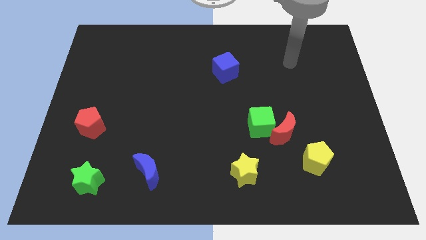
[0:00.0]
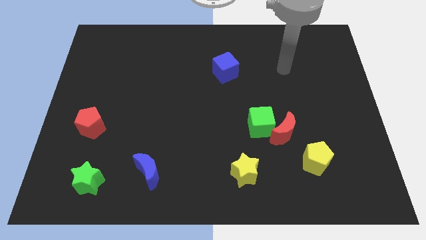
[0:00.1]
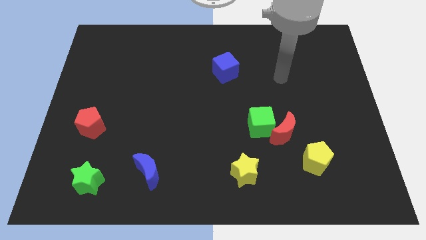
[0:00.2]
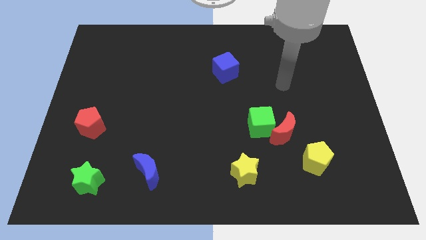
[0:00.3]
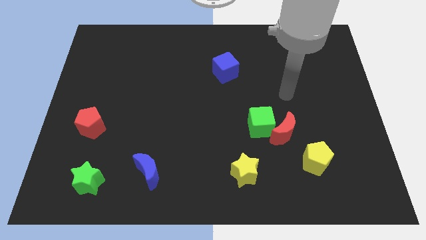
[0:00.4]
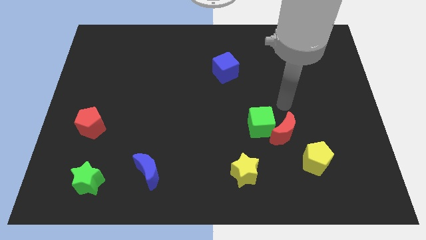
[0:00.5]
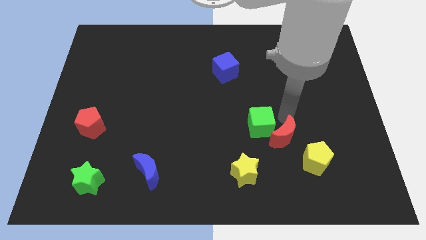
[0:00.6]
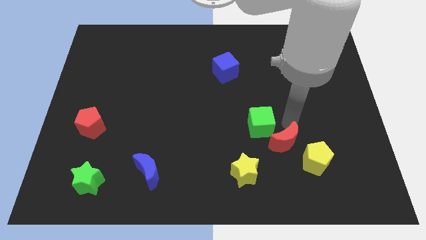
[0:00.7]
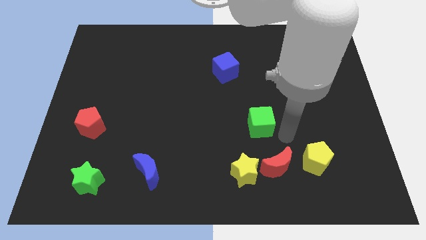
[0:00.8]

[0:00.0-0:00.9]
separate the green cube from the red moon

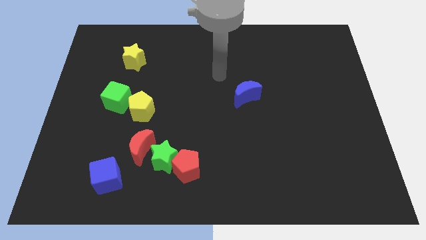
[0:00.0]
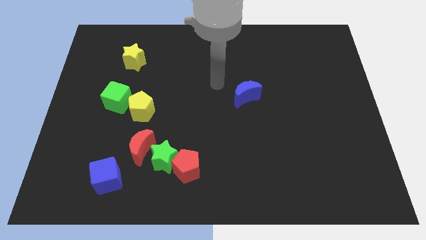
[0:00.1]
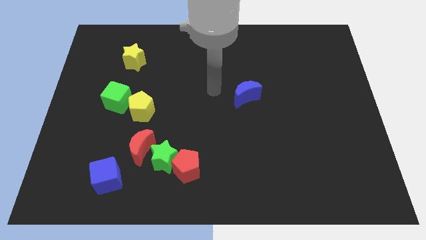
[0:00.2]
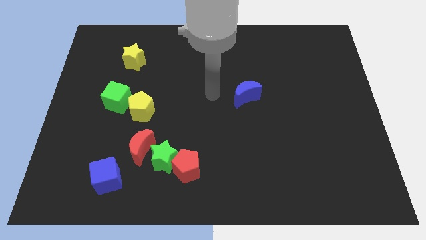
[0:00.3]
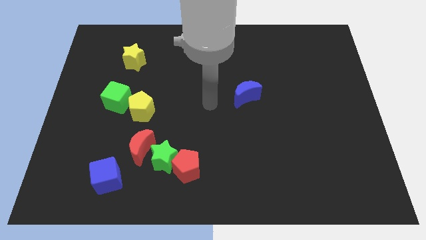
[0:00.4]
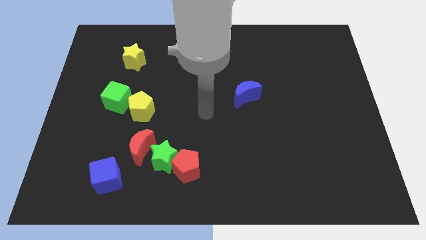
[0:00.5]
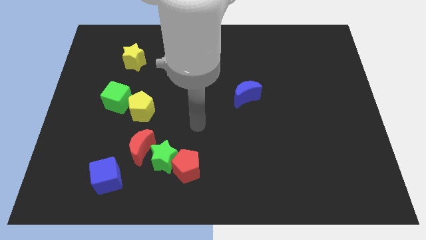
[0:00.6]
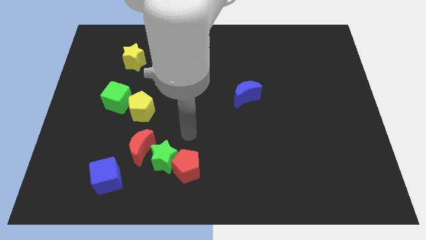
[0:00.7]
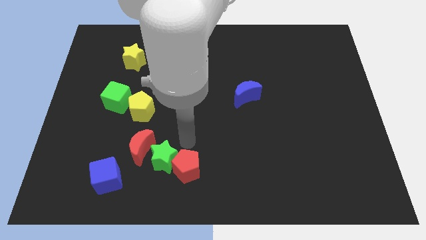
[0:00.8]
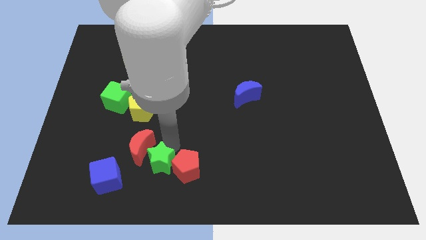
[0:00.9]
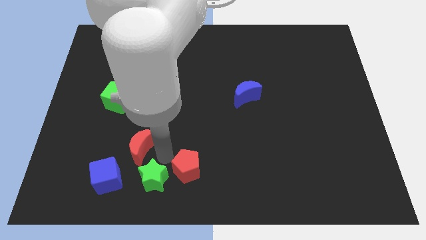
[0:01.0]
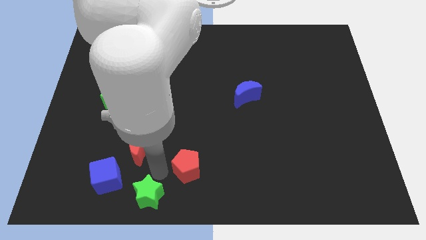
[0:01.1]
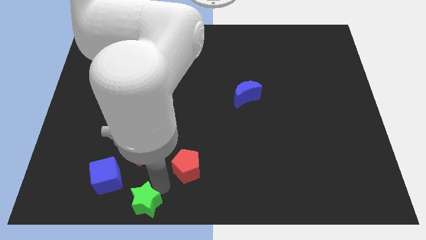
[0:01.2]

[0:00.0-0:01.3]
pull the red pentagon apart from the green star

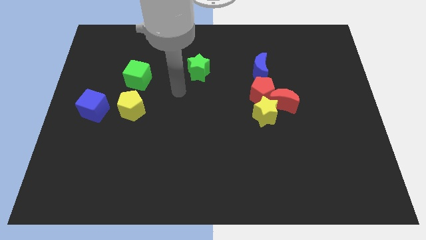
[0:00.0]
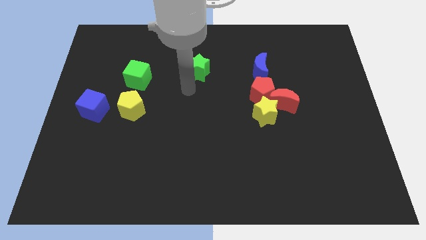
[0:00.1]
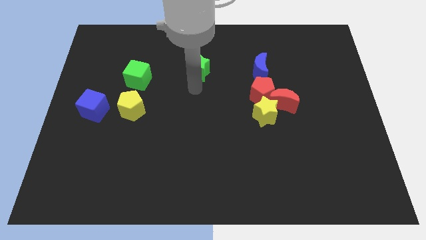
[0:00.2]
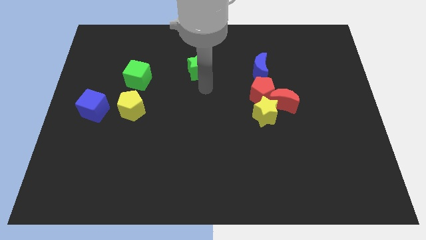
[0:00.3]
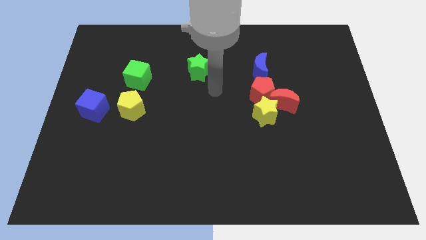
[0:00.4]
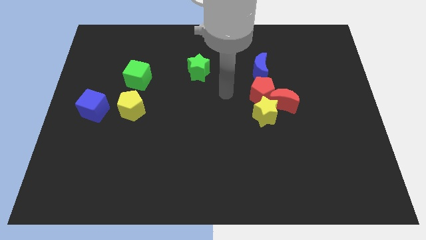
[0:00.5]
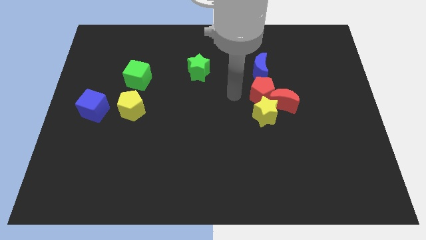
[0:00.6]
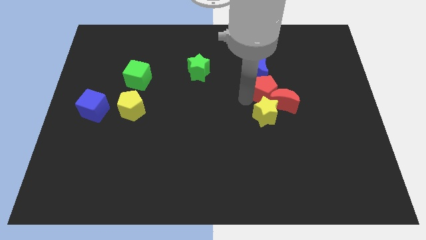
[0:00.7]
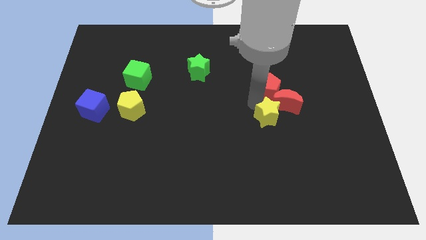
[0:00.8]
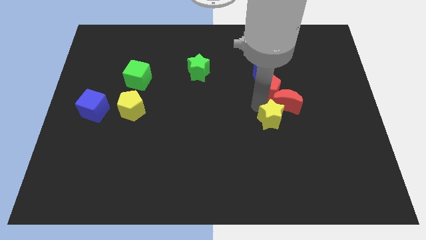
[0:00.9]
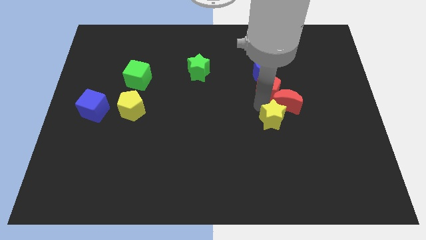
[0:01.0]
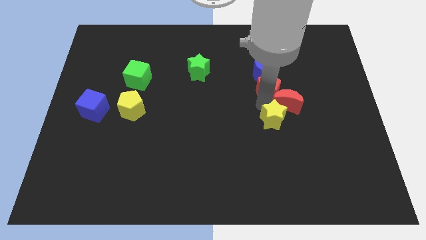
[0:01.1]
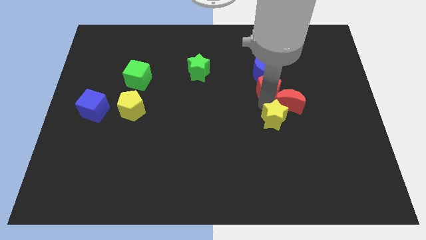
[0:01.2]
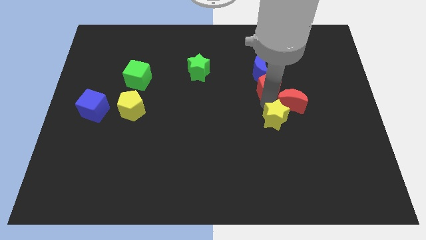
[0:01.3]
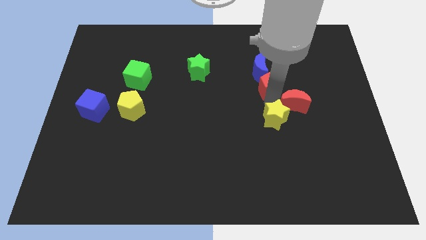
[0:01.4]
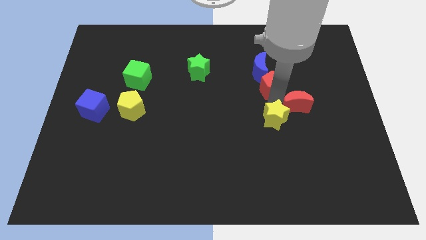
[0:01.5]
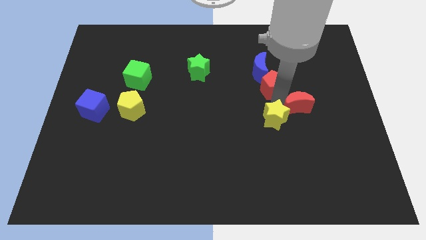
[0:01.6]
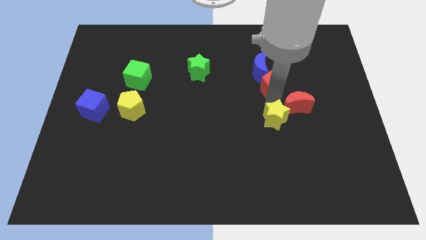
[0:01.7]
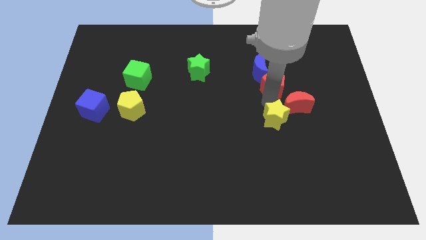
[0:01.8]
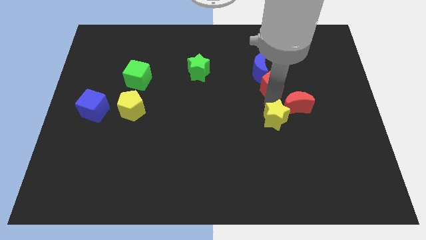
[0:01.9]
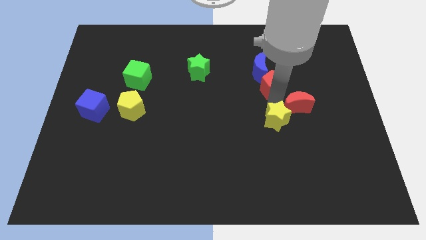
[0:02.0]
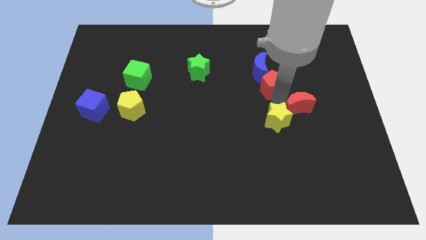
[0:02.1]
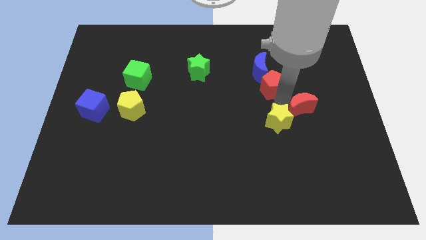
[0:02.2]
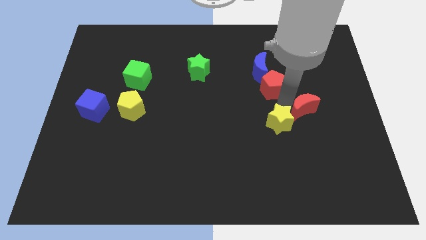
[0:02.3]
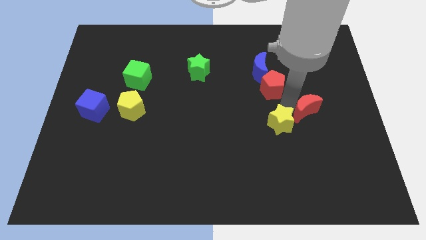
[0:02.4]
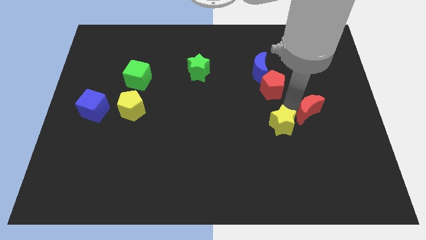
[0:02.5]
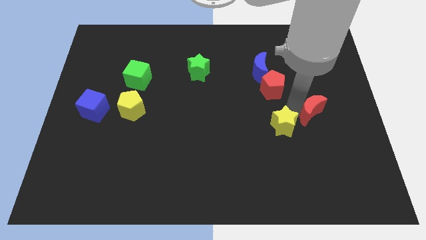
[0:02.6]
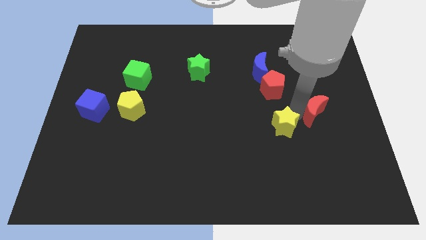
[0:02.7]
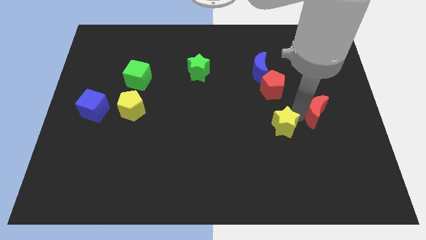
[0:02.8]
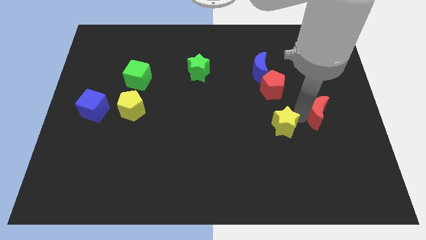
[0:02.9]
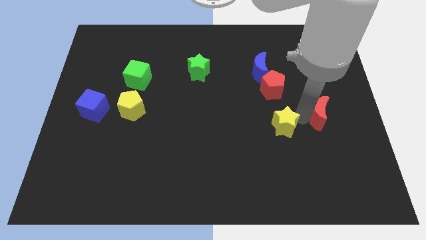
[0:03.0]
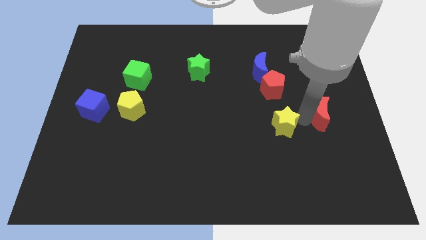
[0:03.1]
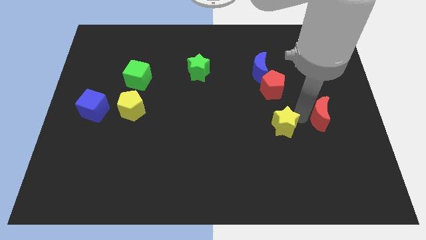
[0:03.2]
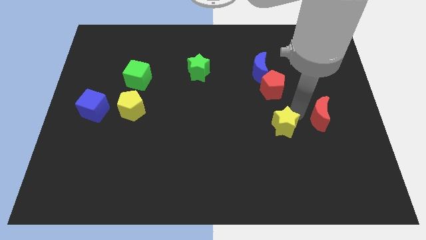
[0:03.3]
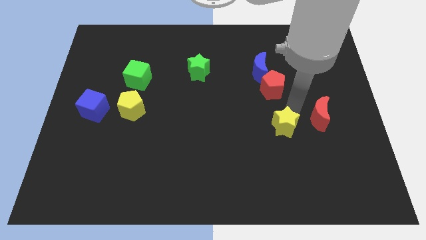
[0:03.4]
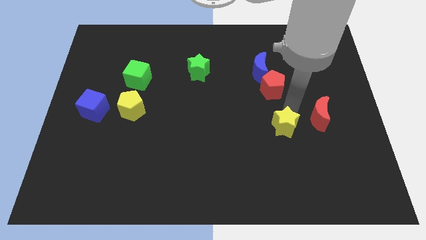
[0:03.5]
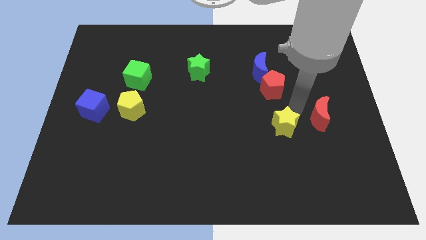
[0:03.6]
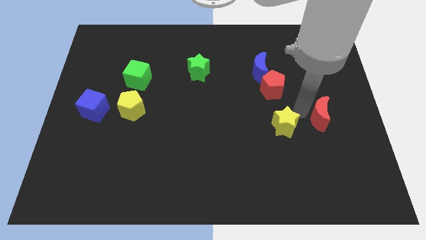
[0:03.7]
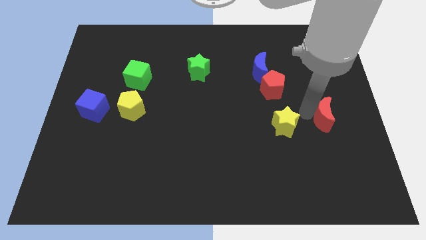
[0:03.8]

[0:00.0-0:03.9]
separate the red moon from the yellow star and red pentagon

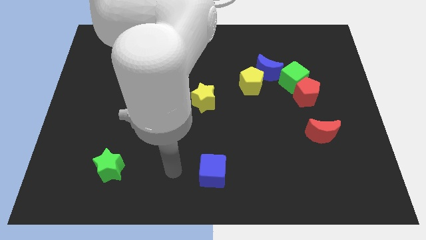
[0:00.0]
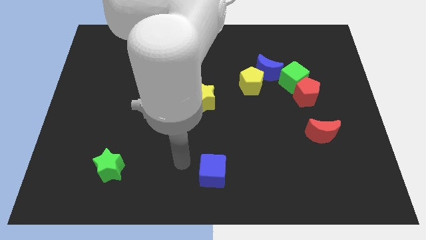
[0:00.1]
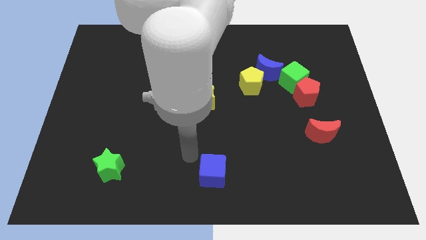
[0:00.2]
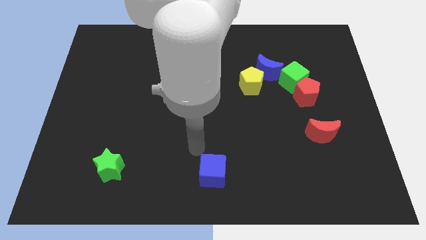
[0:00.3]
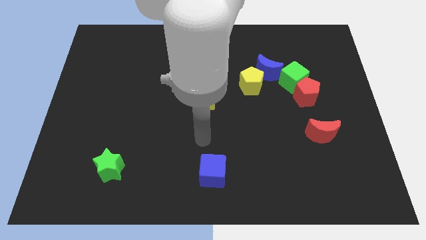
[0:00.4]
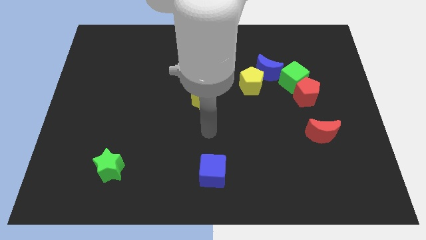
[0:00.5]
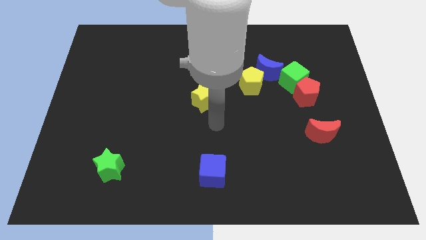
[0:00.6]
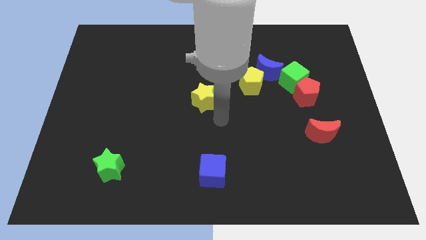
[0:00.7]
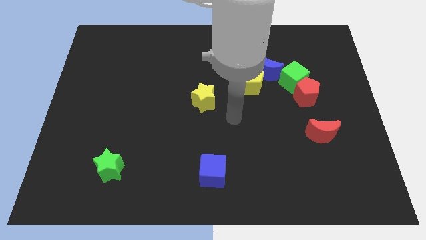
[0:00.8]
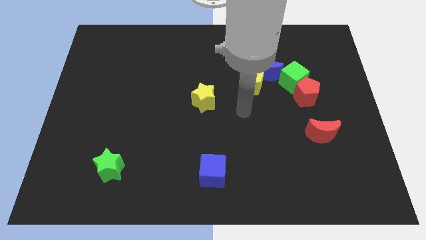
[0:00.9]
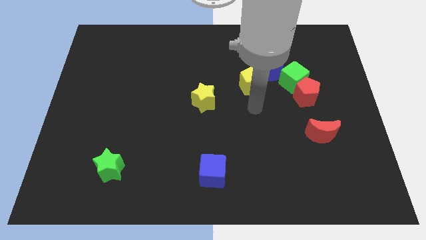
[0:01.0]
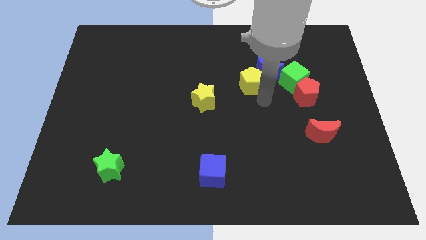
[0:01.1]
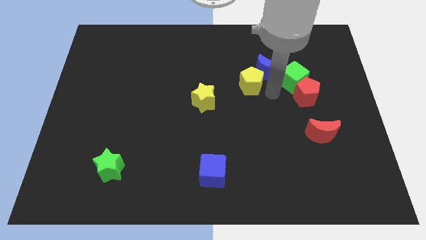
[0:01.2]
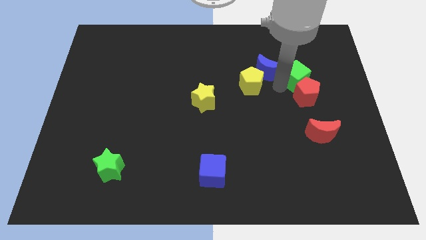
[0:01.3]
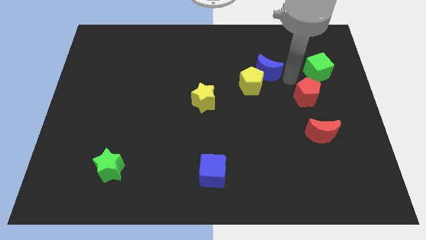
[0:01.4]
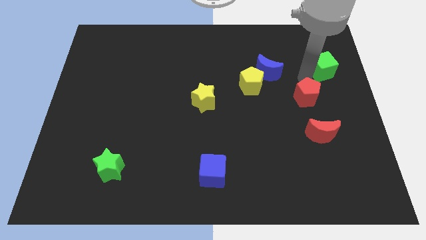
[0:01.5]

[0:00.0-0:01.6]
move the red pentagon away from the green cube

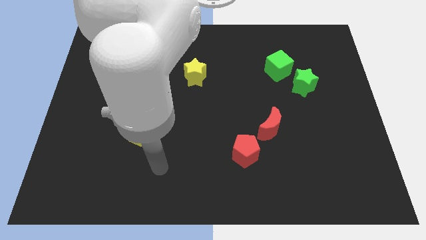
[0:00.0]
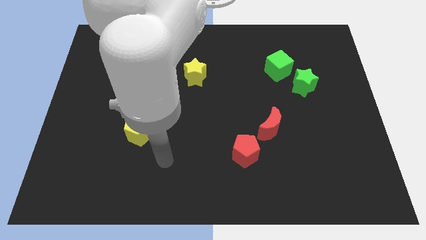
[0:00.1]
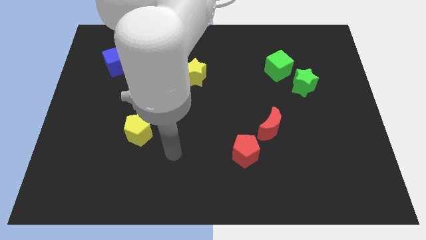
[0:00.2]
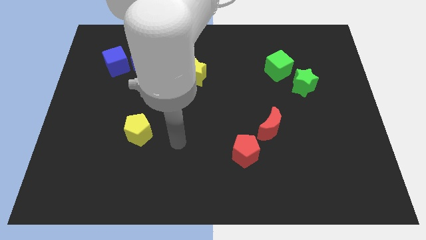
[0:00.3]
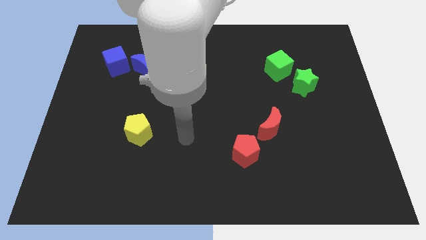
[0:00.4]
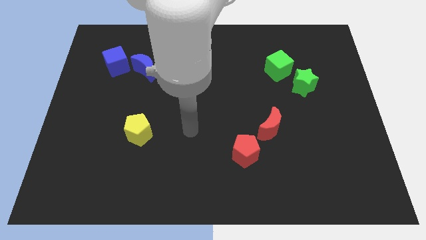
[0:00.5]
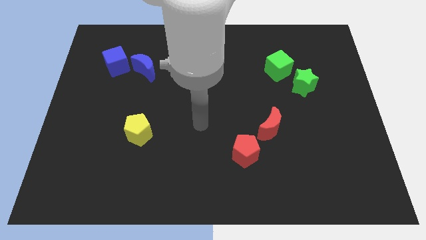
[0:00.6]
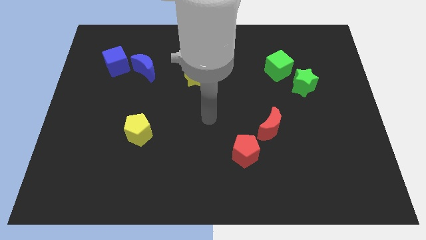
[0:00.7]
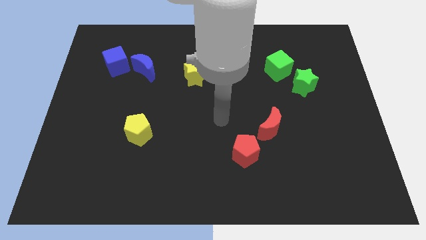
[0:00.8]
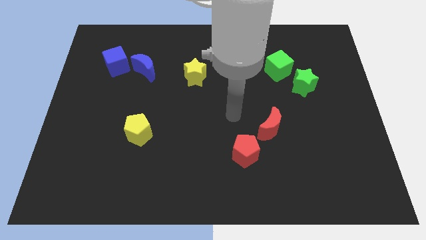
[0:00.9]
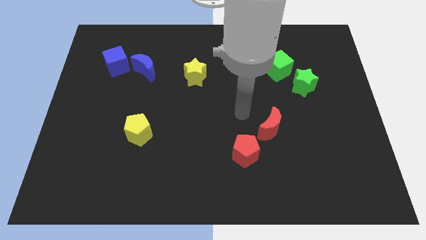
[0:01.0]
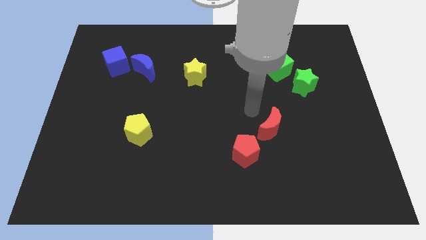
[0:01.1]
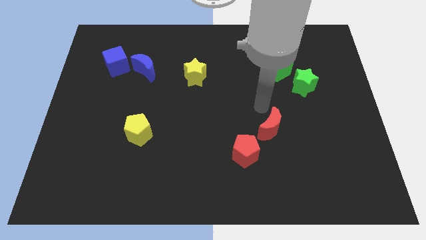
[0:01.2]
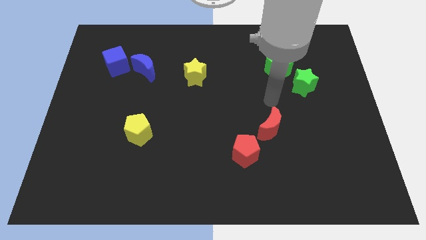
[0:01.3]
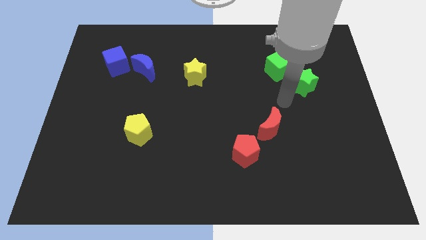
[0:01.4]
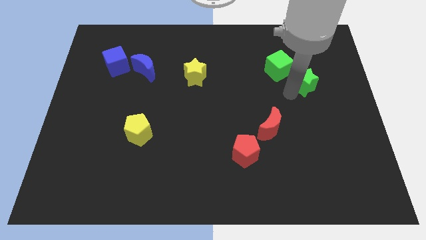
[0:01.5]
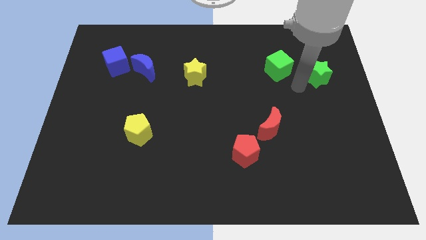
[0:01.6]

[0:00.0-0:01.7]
pull the green cube apart from the green star
